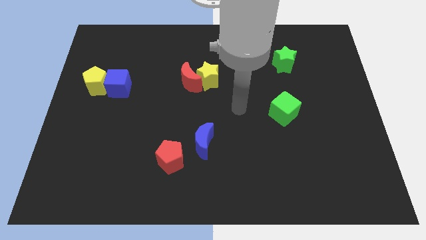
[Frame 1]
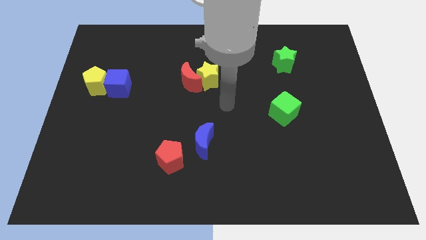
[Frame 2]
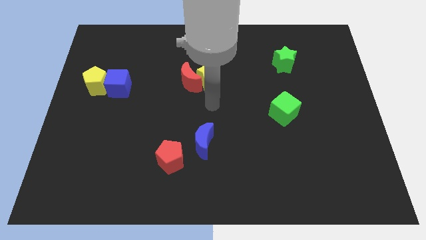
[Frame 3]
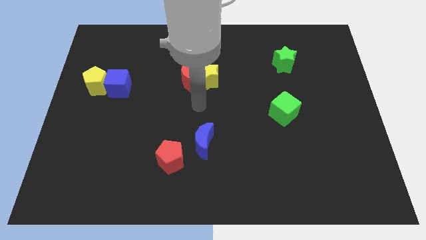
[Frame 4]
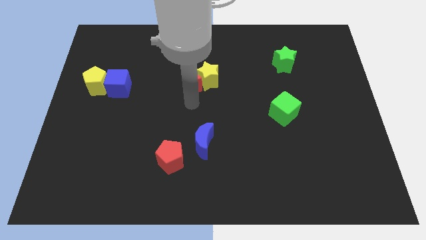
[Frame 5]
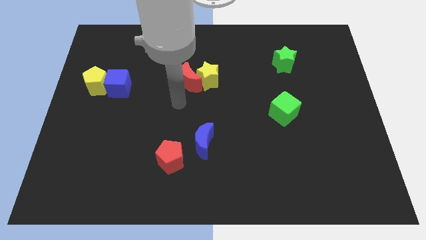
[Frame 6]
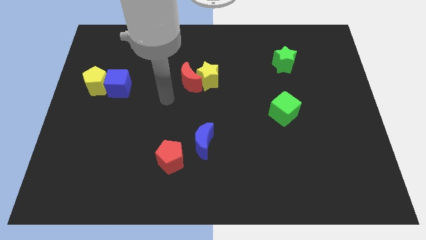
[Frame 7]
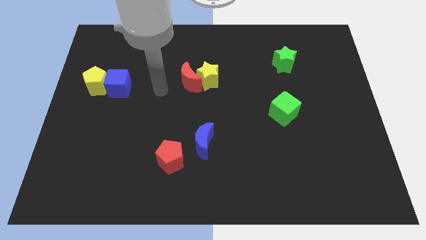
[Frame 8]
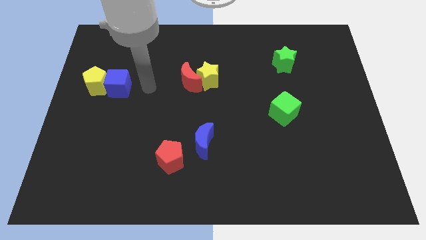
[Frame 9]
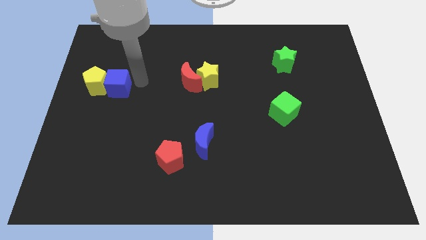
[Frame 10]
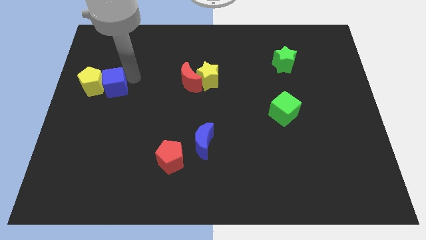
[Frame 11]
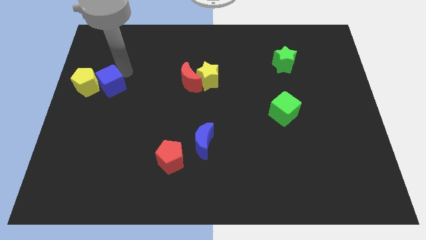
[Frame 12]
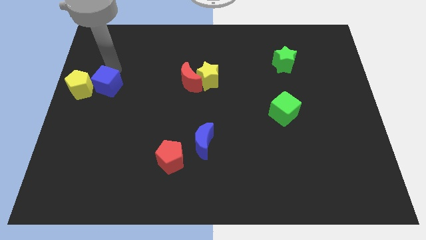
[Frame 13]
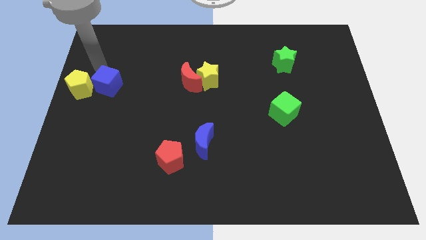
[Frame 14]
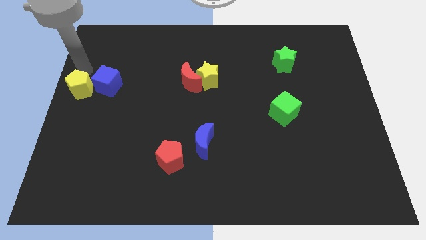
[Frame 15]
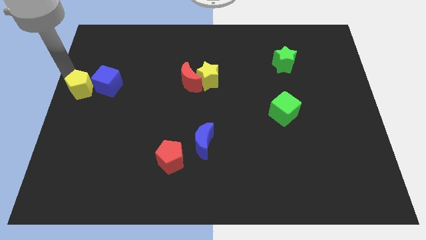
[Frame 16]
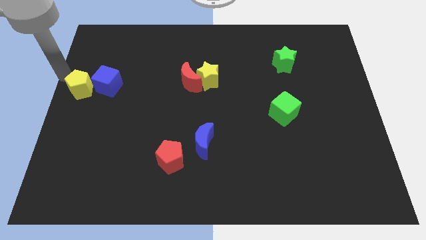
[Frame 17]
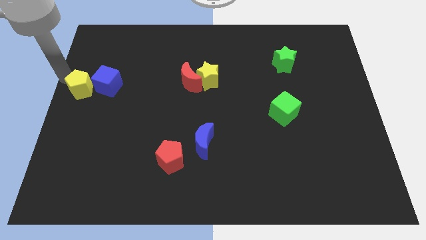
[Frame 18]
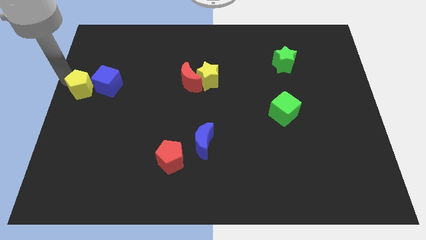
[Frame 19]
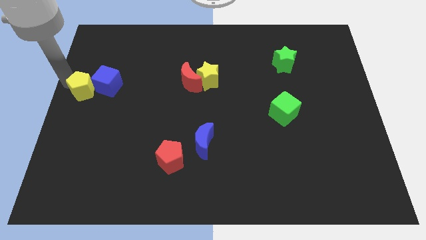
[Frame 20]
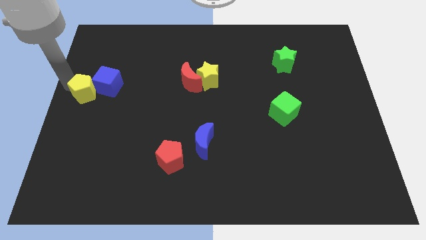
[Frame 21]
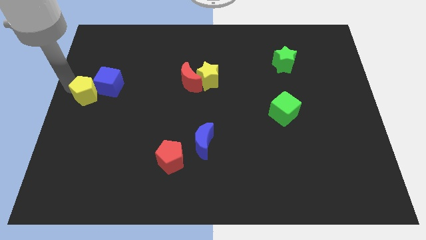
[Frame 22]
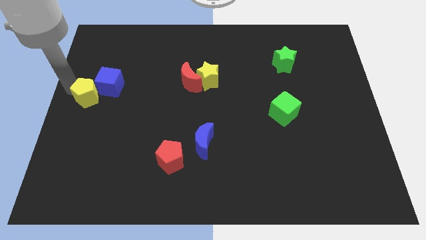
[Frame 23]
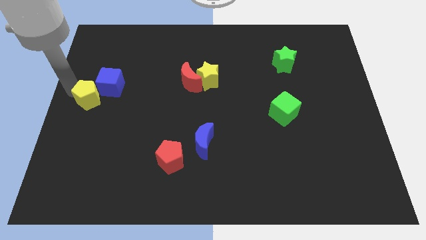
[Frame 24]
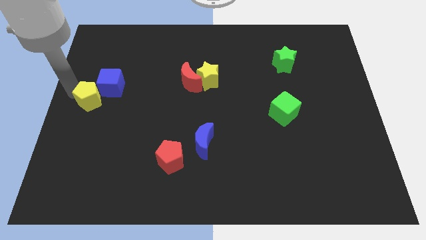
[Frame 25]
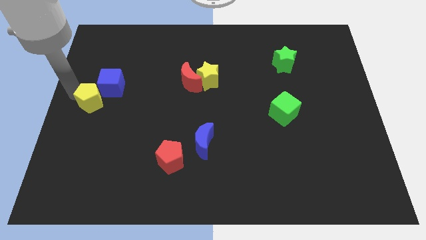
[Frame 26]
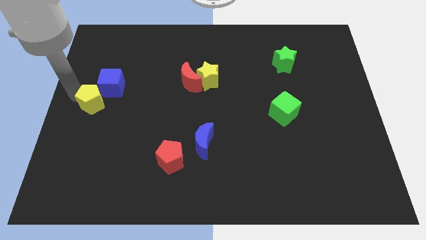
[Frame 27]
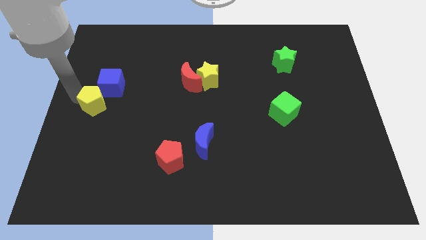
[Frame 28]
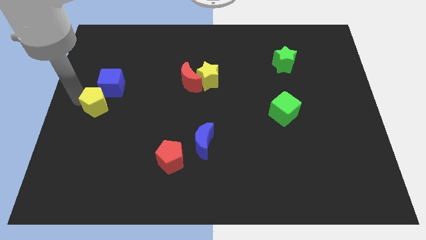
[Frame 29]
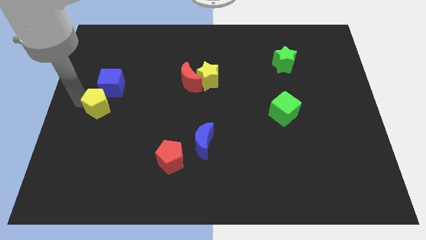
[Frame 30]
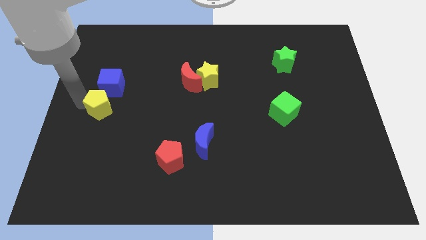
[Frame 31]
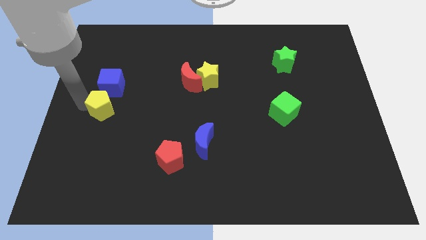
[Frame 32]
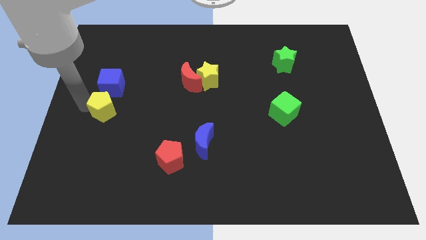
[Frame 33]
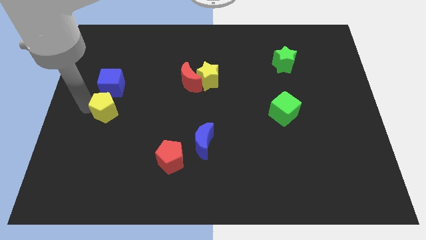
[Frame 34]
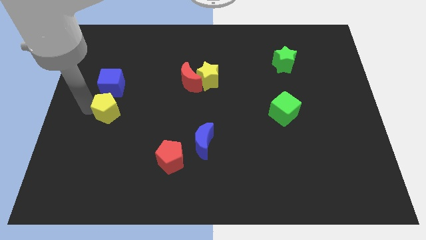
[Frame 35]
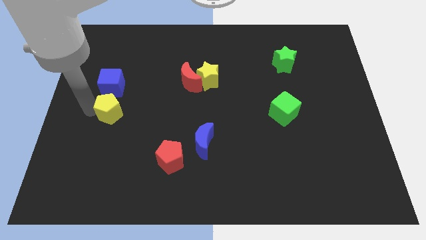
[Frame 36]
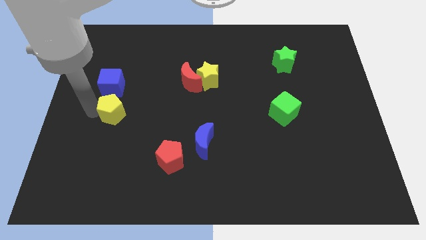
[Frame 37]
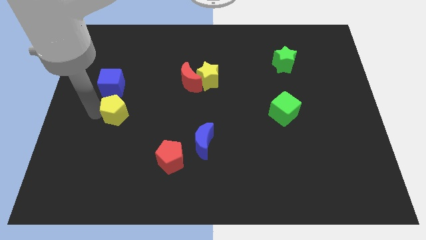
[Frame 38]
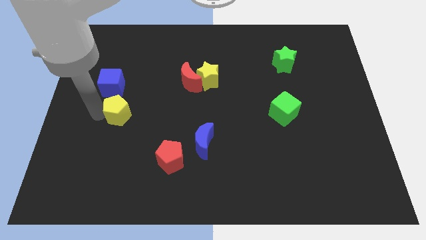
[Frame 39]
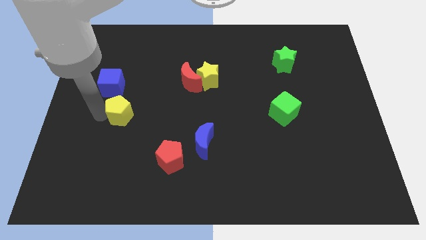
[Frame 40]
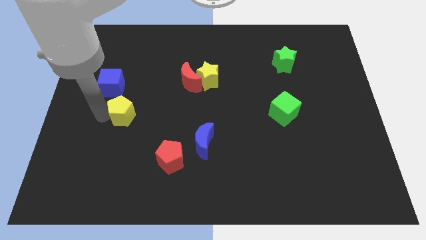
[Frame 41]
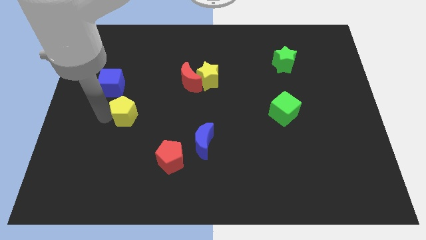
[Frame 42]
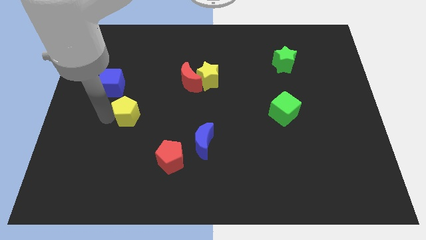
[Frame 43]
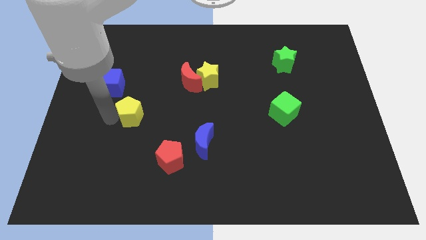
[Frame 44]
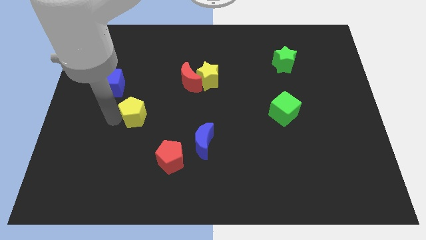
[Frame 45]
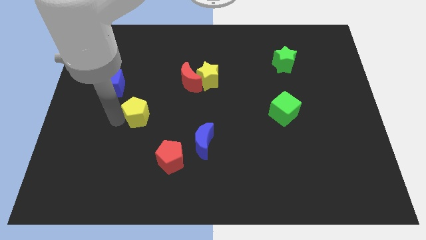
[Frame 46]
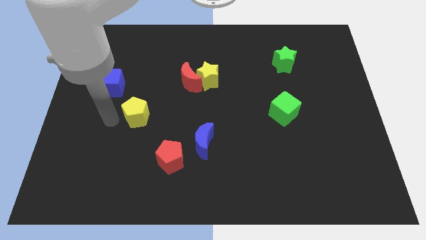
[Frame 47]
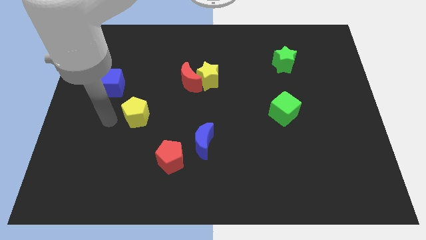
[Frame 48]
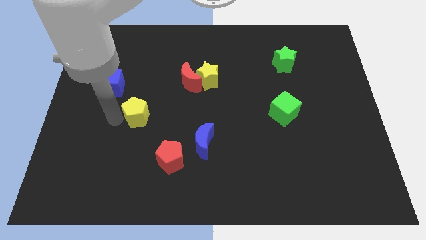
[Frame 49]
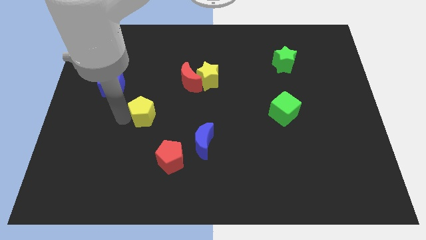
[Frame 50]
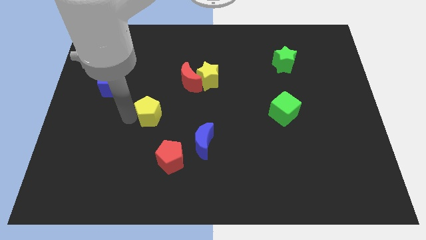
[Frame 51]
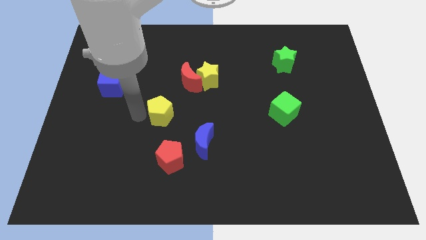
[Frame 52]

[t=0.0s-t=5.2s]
slide the yellow pentagon to the top left of the blue moon

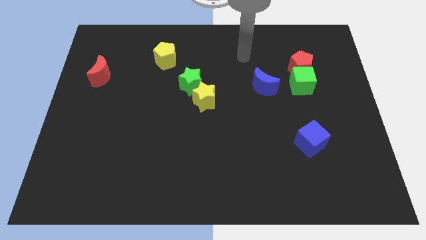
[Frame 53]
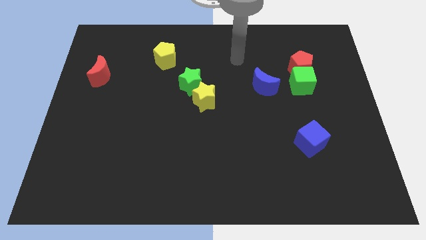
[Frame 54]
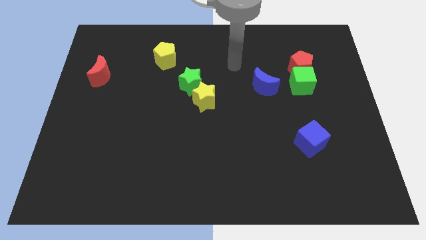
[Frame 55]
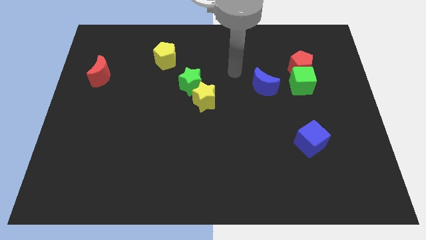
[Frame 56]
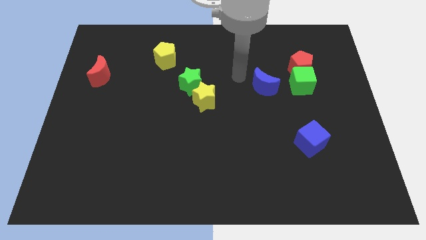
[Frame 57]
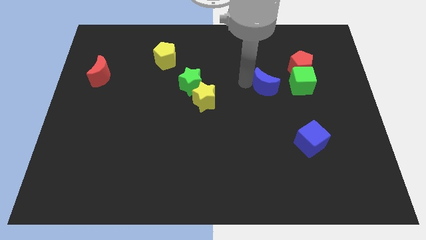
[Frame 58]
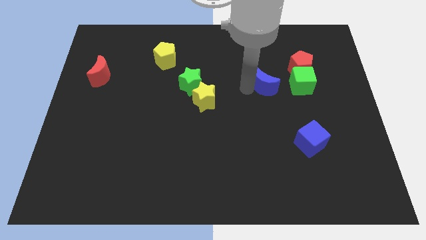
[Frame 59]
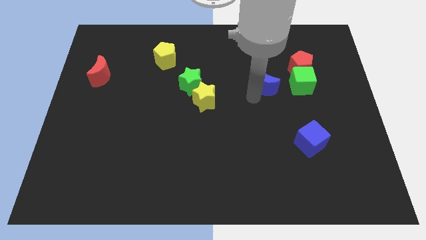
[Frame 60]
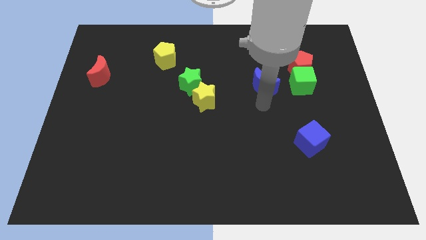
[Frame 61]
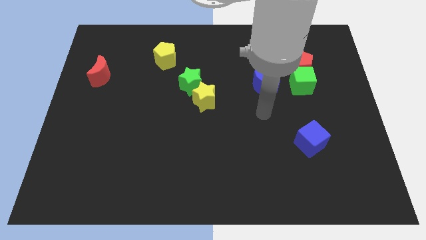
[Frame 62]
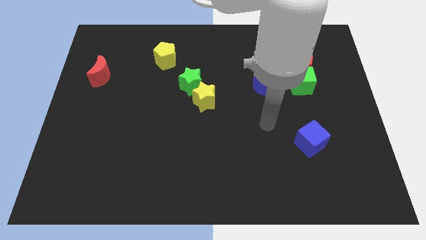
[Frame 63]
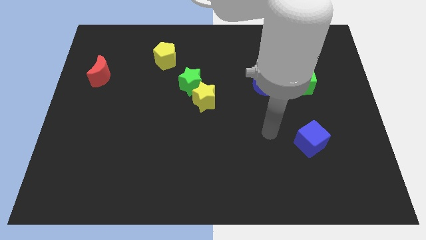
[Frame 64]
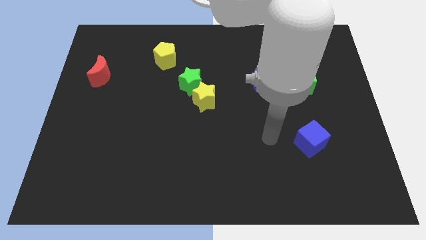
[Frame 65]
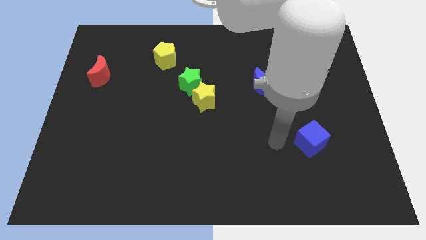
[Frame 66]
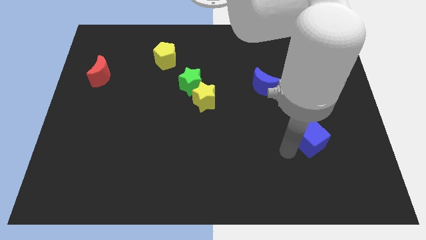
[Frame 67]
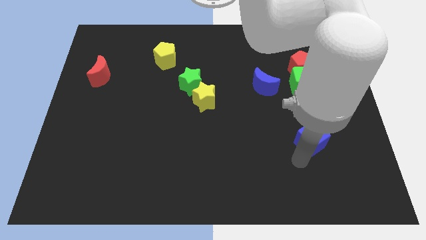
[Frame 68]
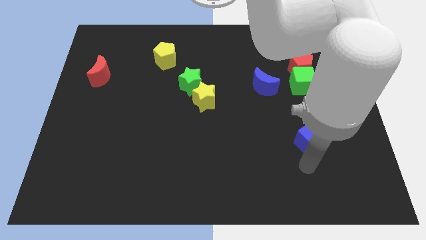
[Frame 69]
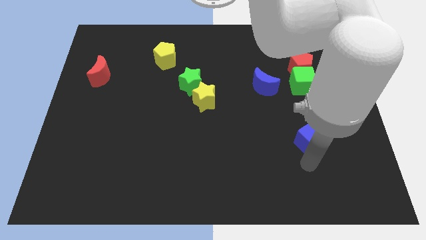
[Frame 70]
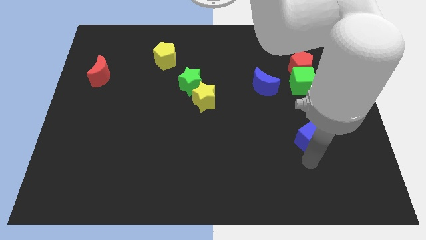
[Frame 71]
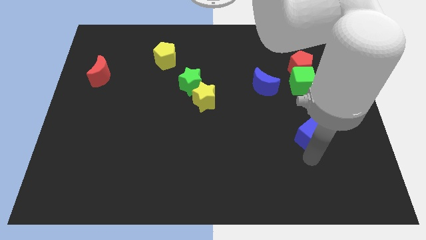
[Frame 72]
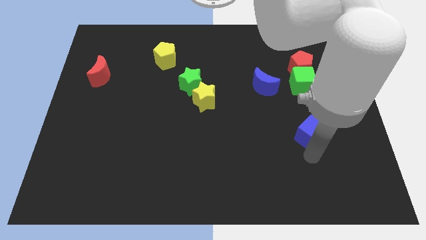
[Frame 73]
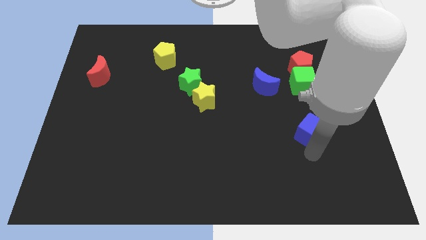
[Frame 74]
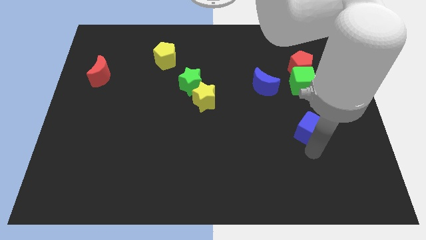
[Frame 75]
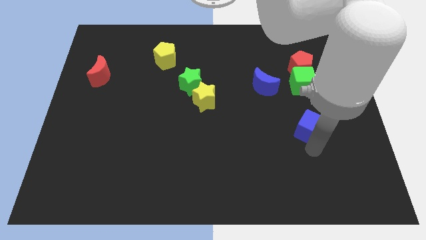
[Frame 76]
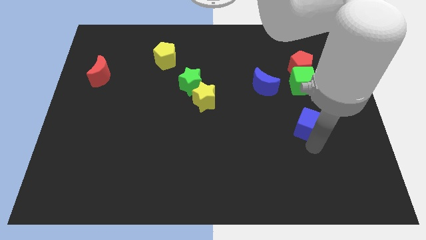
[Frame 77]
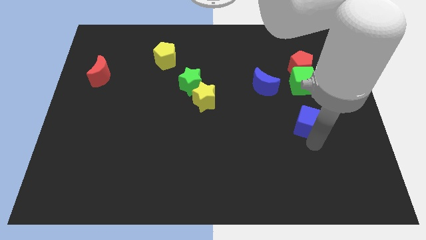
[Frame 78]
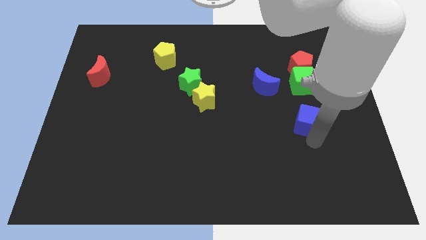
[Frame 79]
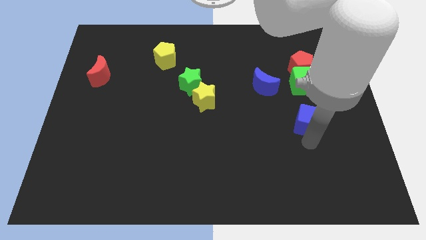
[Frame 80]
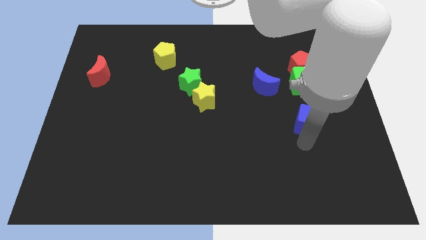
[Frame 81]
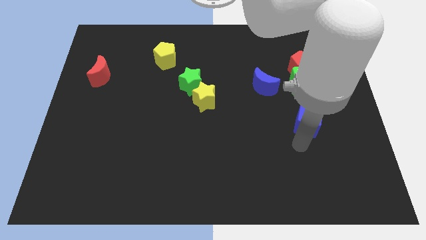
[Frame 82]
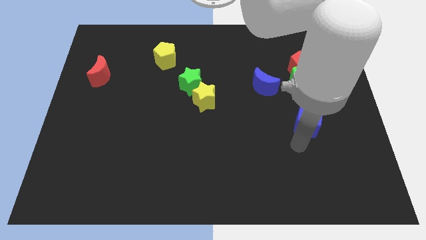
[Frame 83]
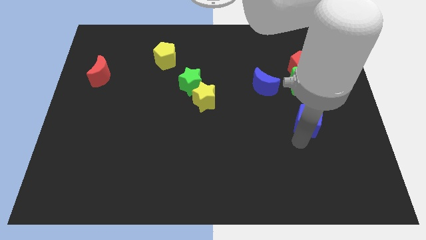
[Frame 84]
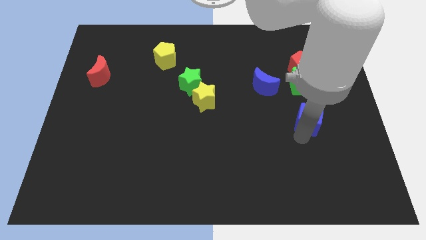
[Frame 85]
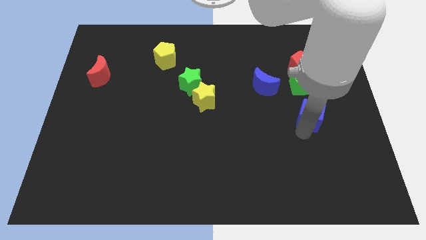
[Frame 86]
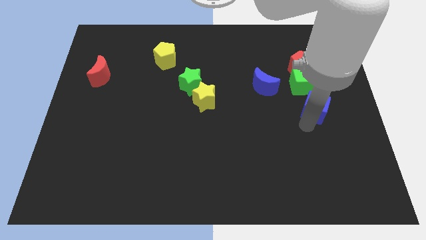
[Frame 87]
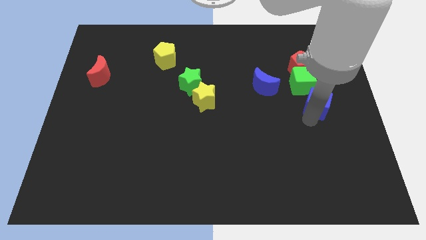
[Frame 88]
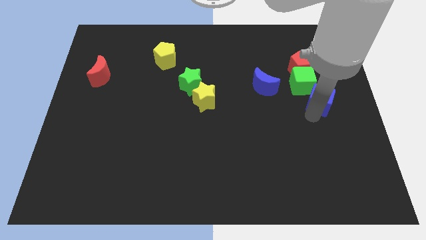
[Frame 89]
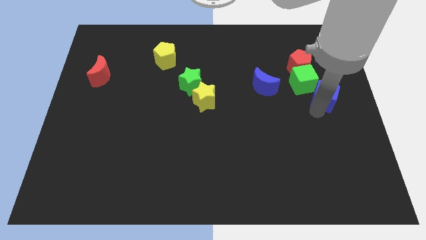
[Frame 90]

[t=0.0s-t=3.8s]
slide the blue cube to the right of the blue moon
